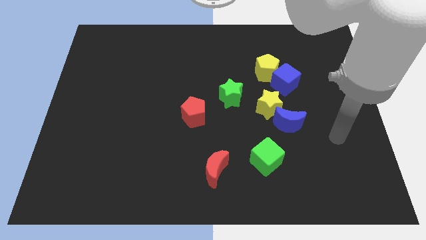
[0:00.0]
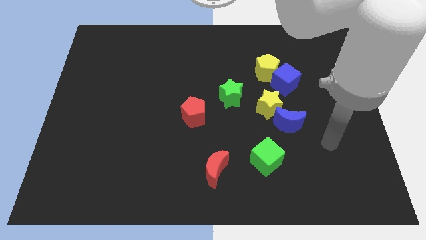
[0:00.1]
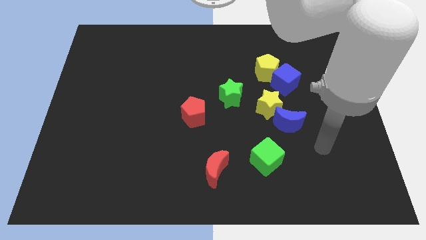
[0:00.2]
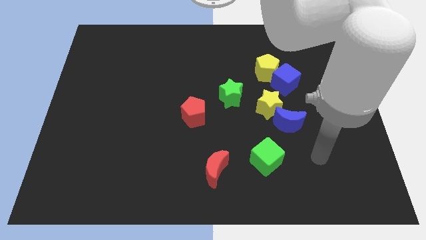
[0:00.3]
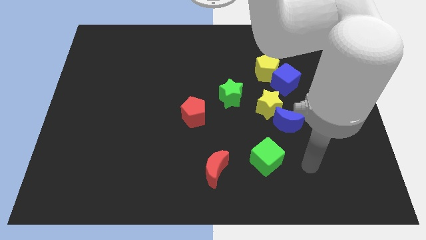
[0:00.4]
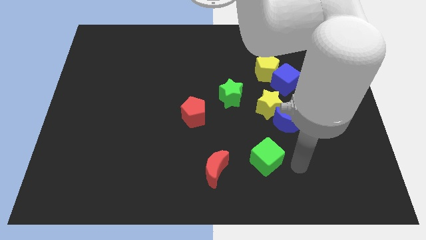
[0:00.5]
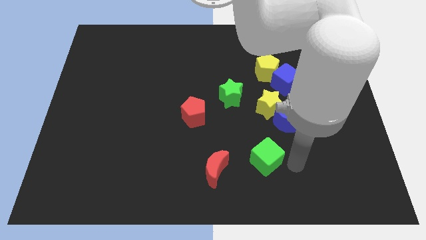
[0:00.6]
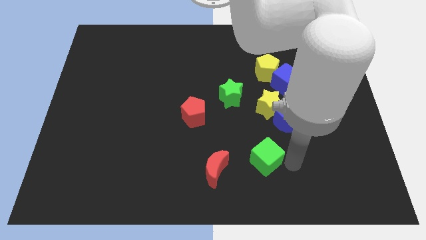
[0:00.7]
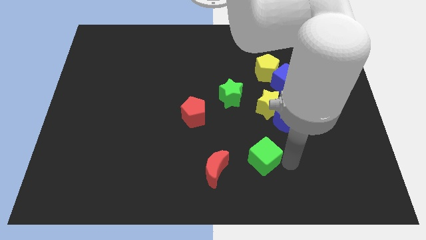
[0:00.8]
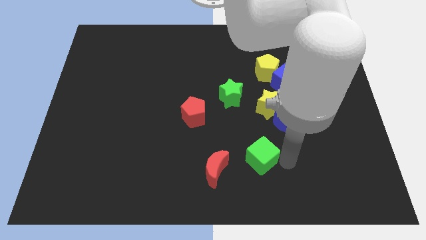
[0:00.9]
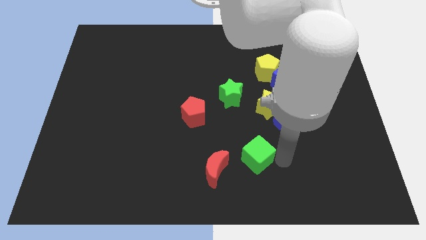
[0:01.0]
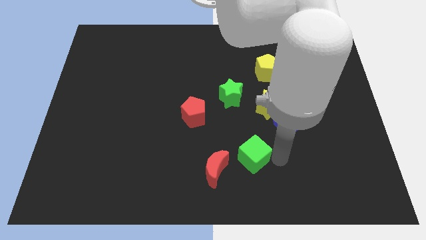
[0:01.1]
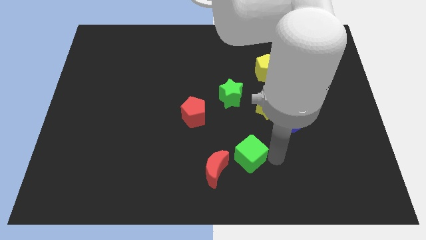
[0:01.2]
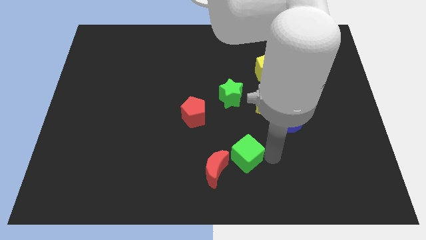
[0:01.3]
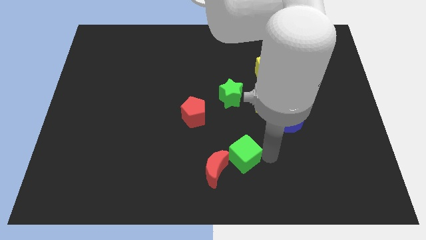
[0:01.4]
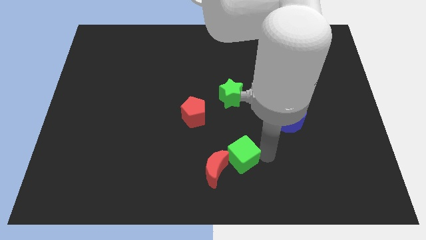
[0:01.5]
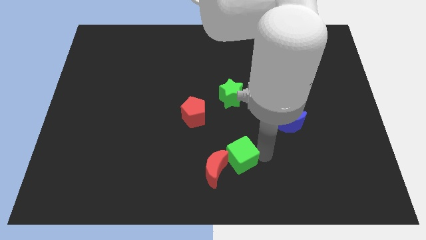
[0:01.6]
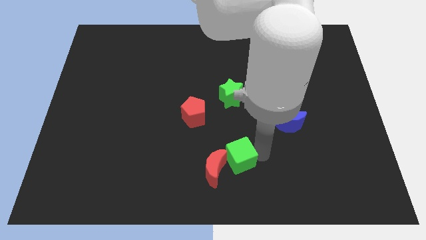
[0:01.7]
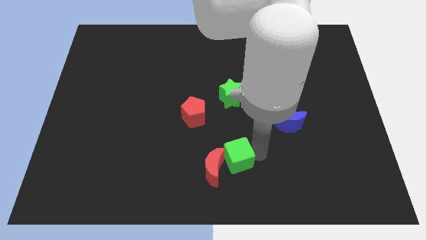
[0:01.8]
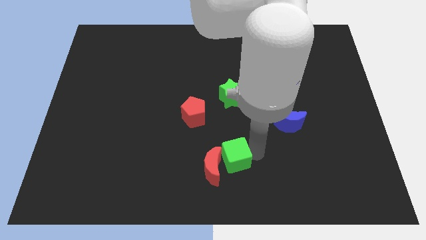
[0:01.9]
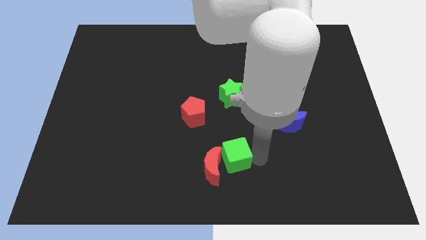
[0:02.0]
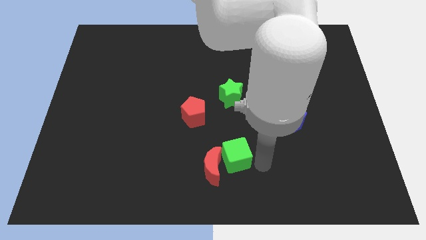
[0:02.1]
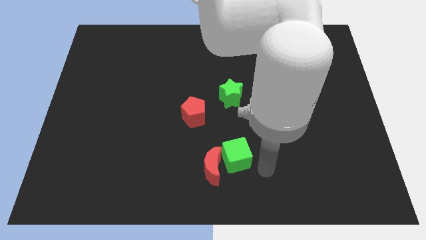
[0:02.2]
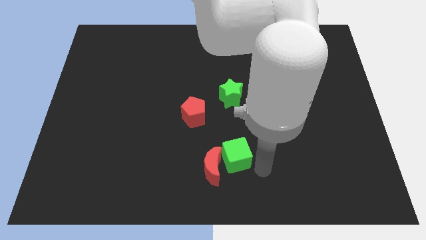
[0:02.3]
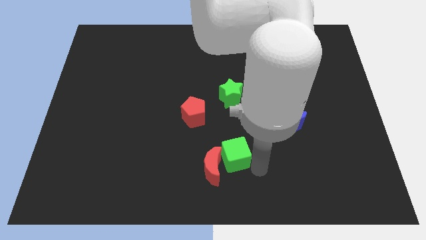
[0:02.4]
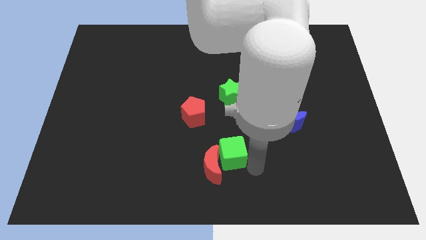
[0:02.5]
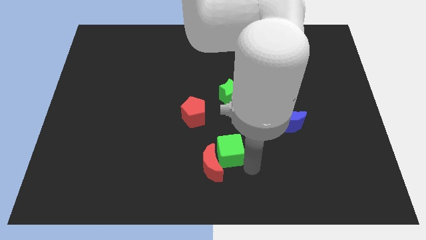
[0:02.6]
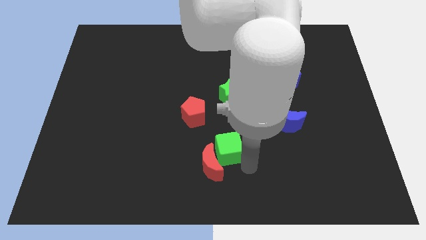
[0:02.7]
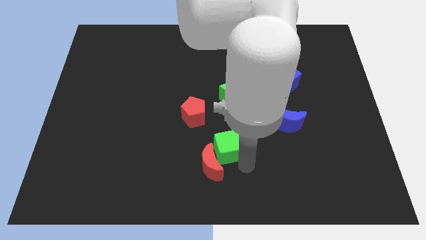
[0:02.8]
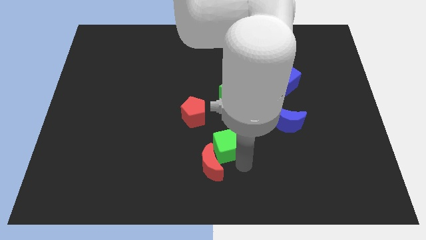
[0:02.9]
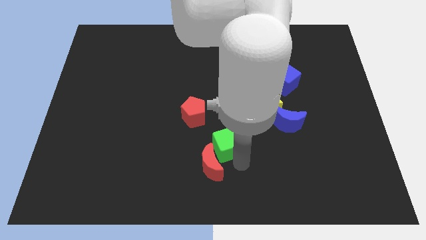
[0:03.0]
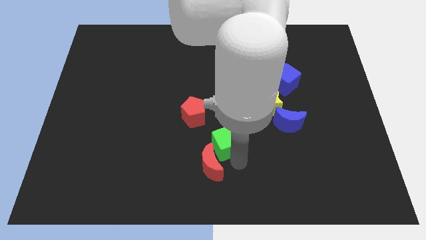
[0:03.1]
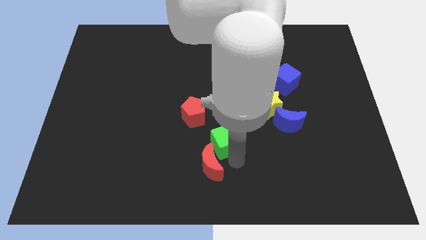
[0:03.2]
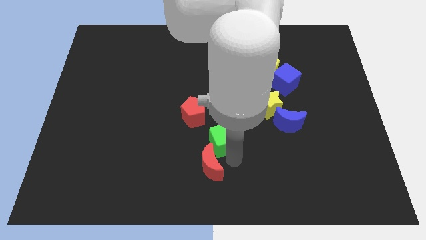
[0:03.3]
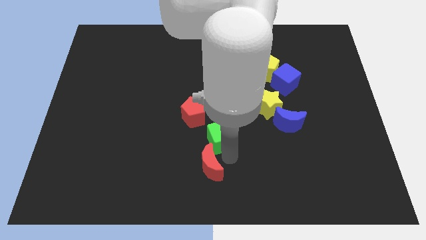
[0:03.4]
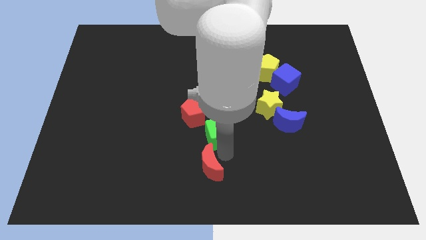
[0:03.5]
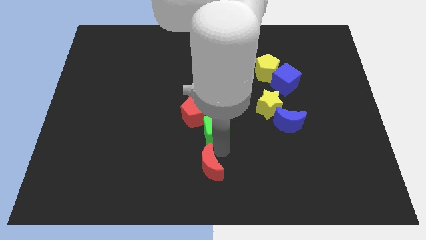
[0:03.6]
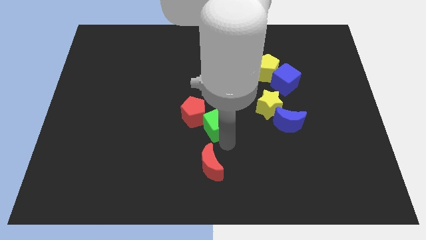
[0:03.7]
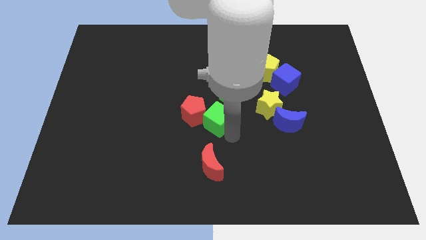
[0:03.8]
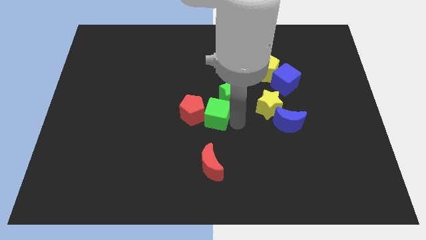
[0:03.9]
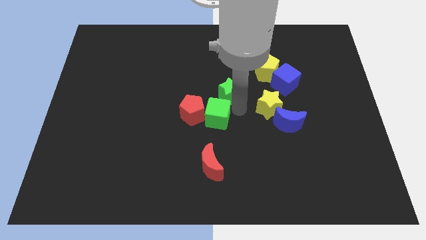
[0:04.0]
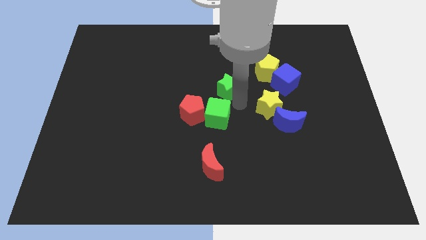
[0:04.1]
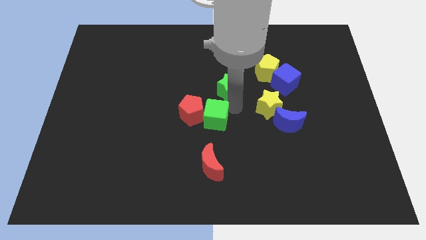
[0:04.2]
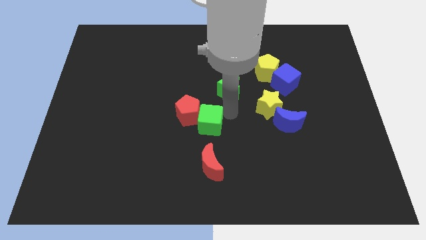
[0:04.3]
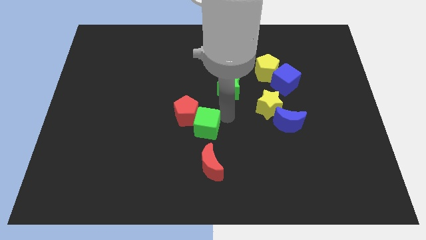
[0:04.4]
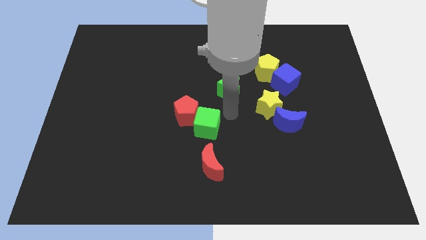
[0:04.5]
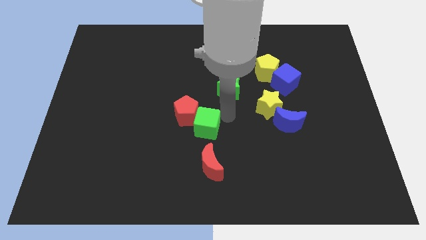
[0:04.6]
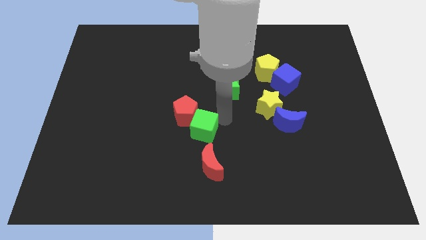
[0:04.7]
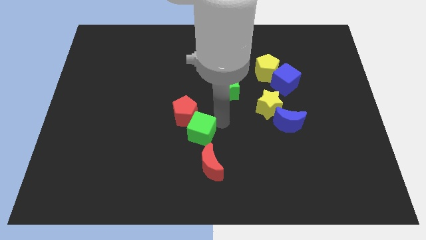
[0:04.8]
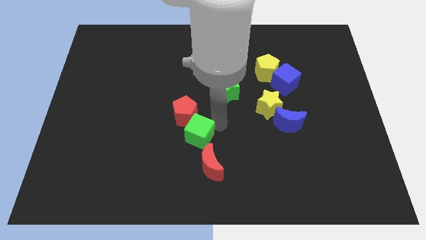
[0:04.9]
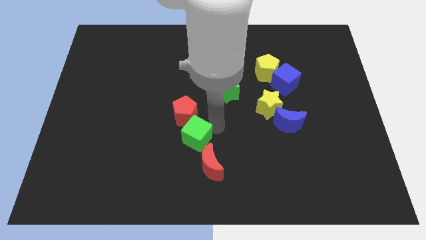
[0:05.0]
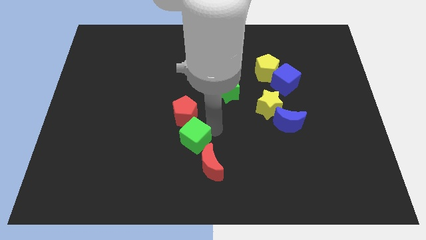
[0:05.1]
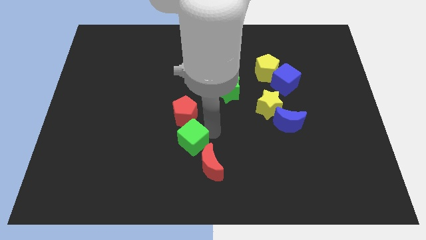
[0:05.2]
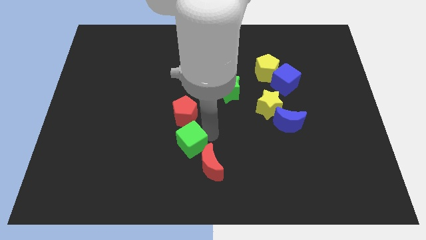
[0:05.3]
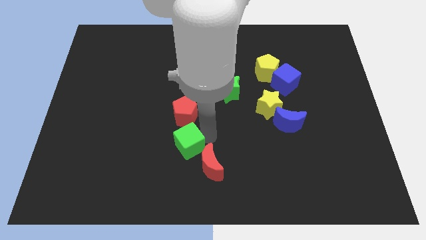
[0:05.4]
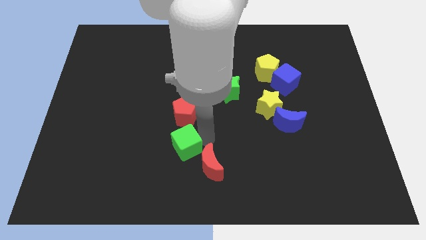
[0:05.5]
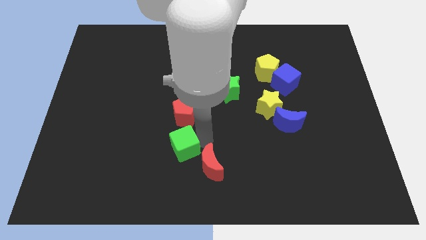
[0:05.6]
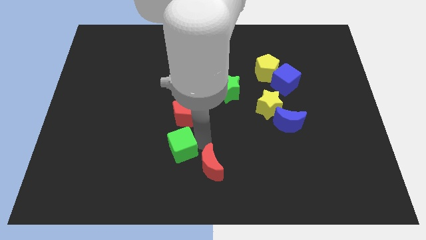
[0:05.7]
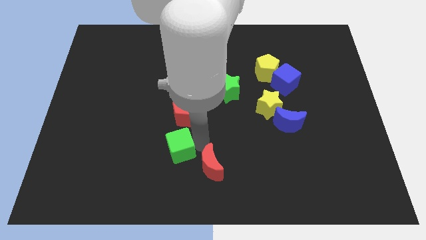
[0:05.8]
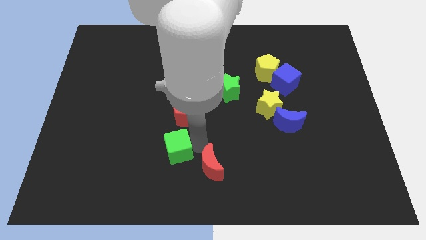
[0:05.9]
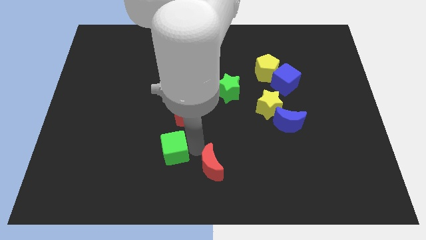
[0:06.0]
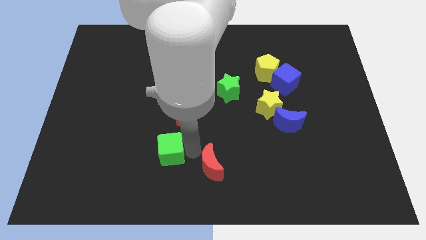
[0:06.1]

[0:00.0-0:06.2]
slide the green cube to the left

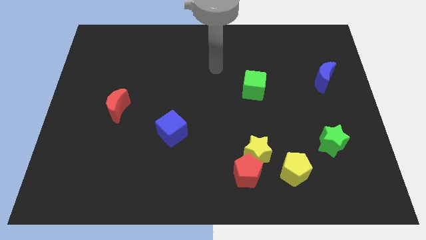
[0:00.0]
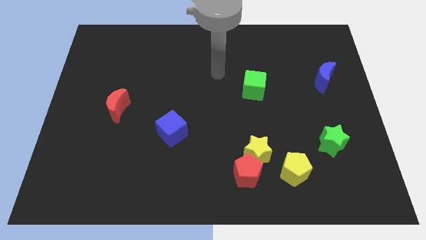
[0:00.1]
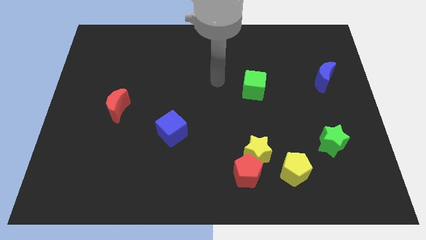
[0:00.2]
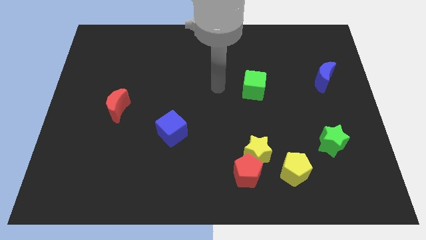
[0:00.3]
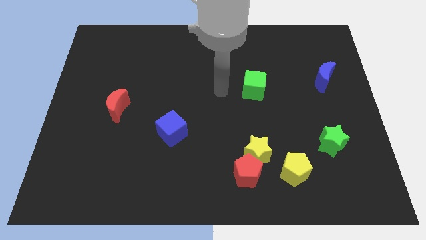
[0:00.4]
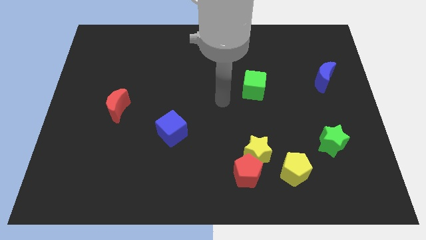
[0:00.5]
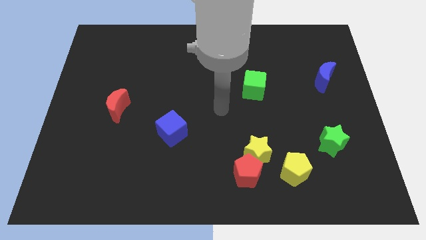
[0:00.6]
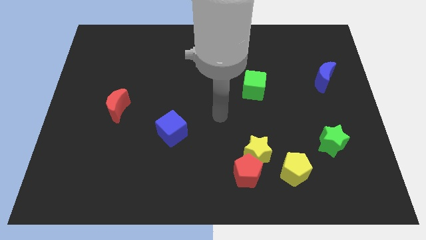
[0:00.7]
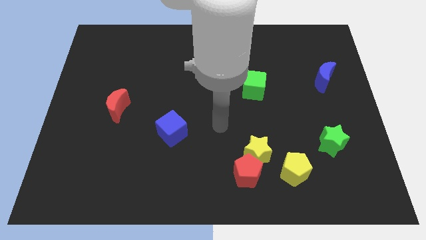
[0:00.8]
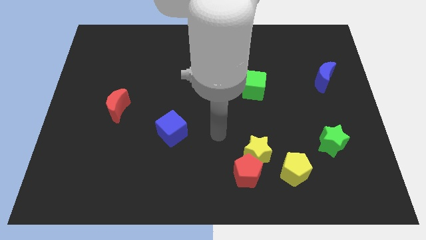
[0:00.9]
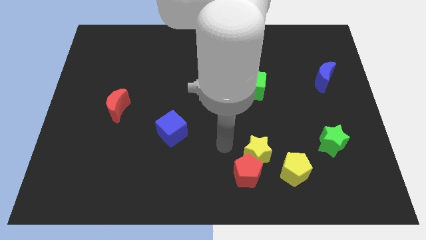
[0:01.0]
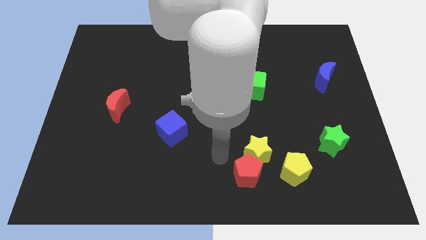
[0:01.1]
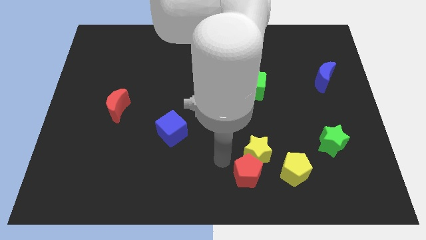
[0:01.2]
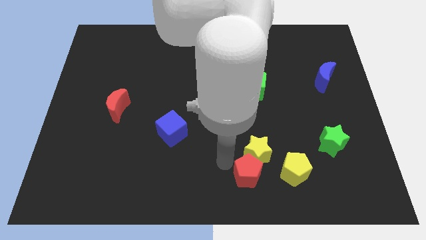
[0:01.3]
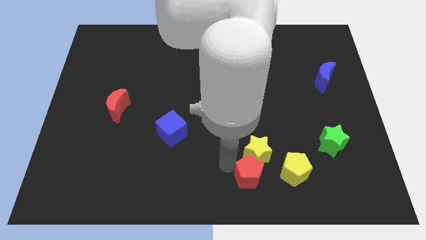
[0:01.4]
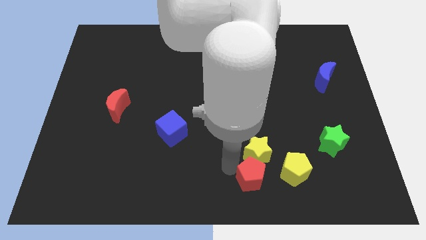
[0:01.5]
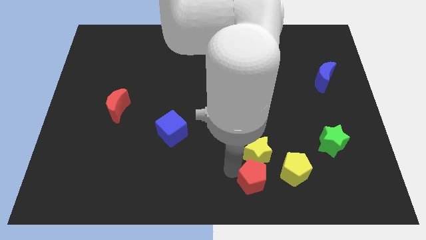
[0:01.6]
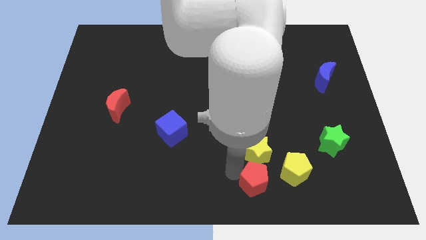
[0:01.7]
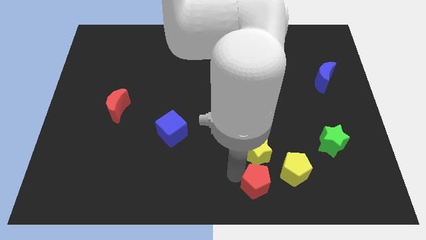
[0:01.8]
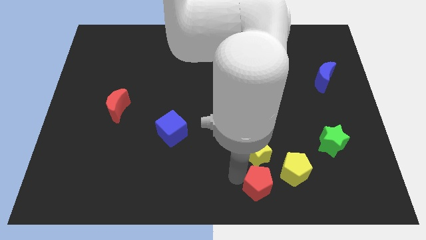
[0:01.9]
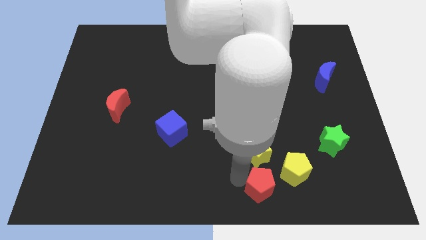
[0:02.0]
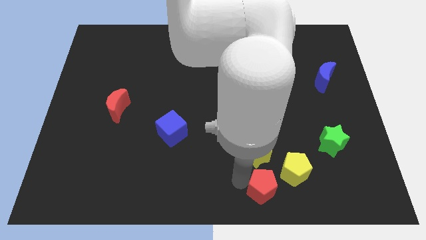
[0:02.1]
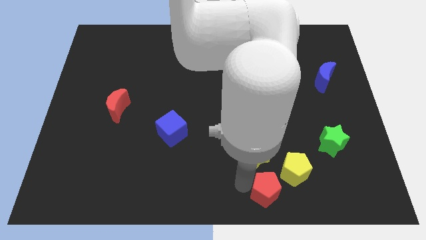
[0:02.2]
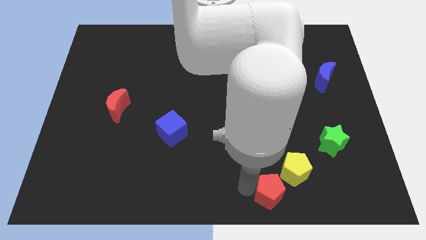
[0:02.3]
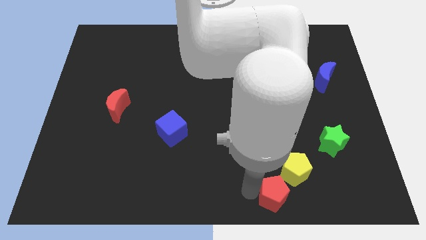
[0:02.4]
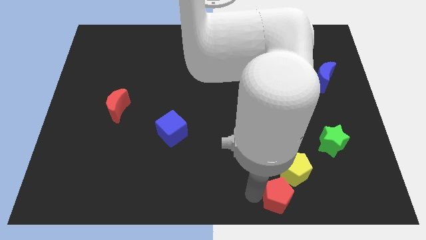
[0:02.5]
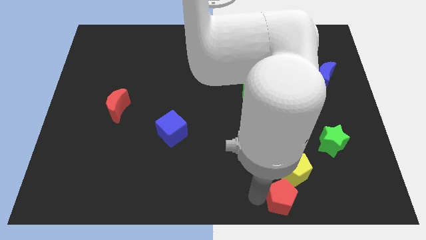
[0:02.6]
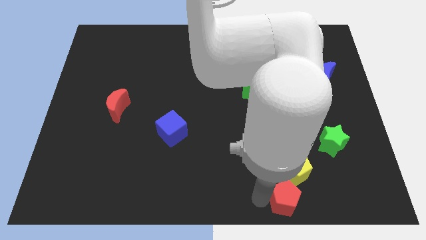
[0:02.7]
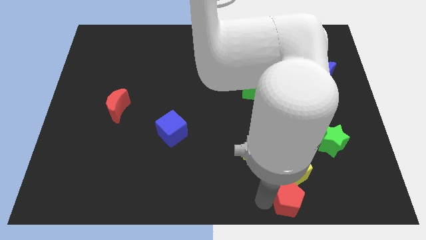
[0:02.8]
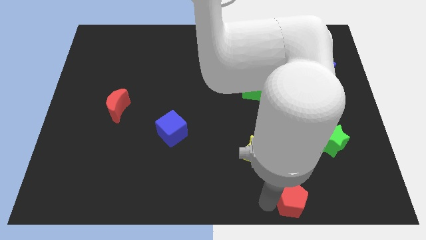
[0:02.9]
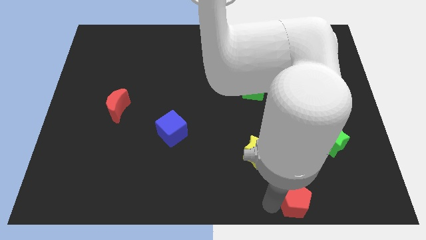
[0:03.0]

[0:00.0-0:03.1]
push the red pentagon to the right a little
